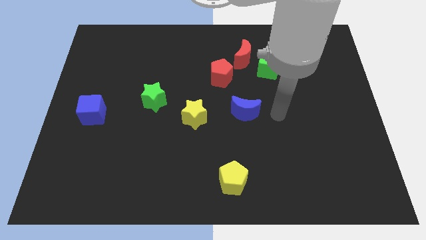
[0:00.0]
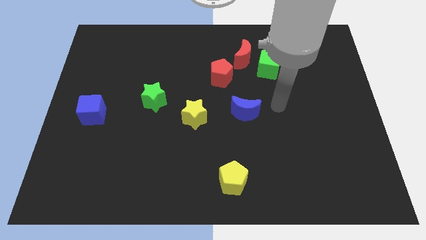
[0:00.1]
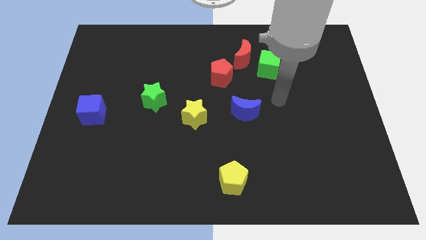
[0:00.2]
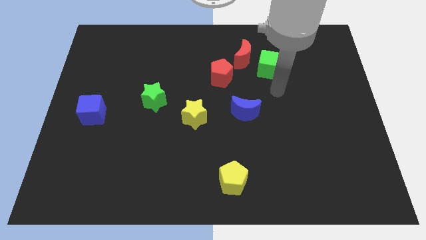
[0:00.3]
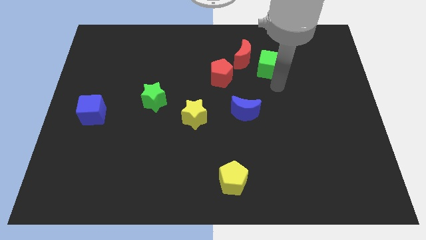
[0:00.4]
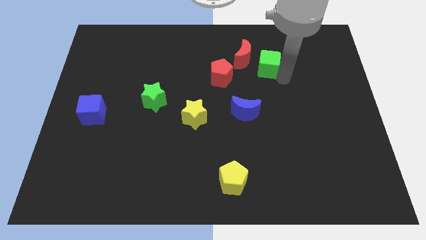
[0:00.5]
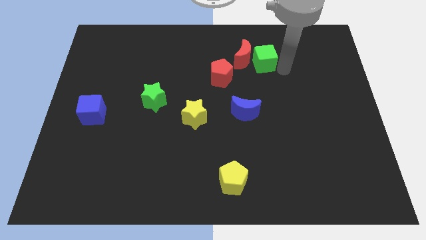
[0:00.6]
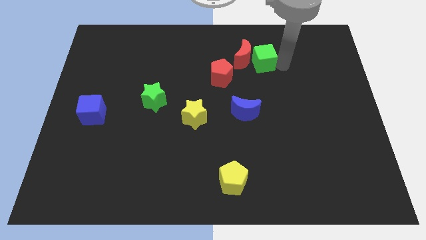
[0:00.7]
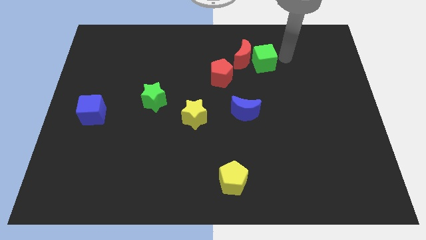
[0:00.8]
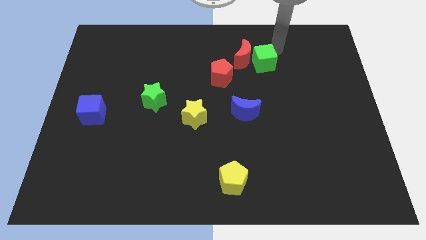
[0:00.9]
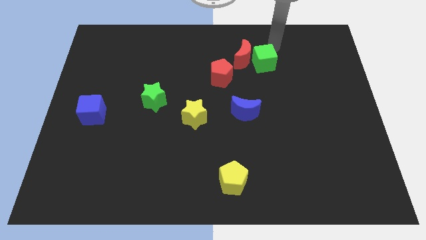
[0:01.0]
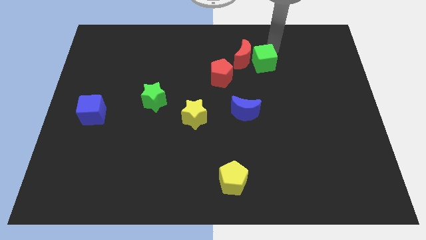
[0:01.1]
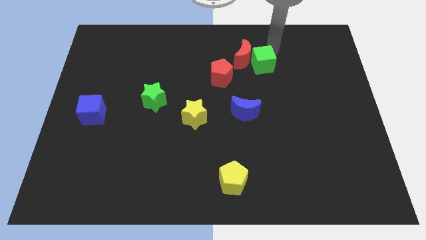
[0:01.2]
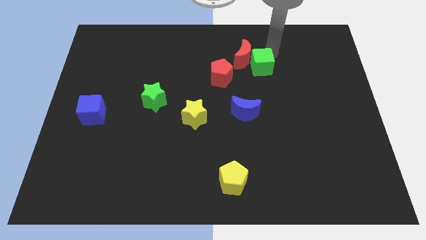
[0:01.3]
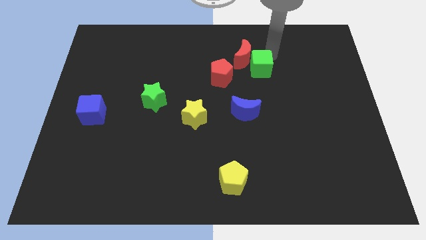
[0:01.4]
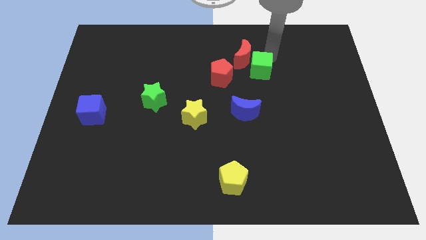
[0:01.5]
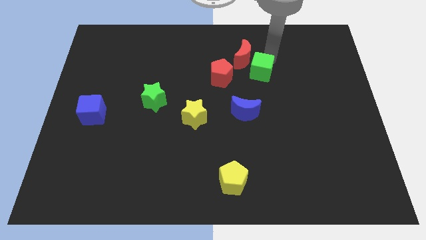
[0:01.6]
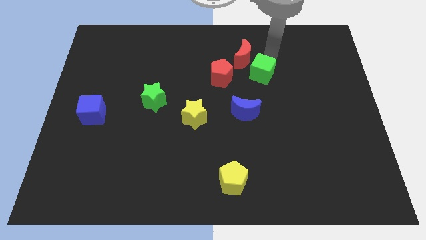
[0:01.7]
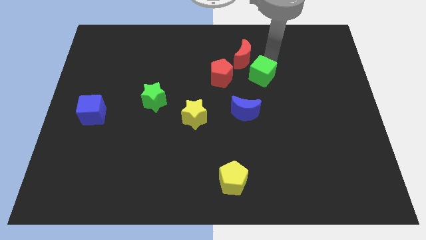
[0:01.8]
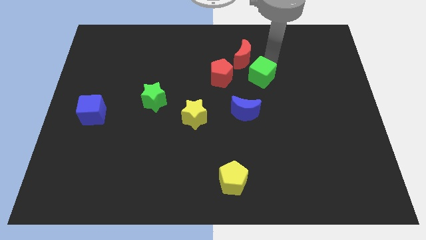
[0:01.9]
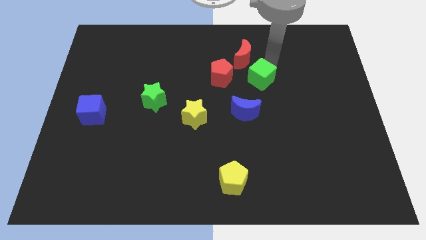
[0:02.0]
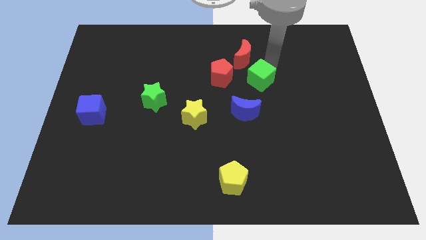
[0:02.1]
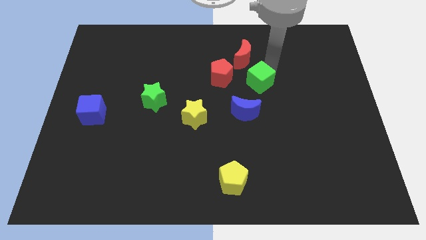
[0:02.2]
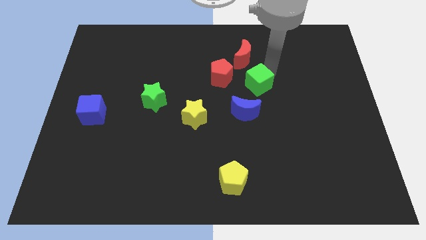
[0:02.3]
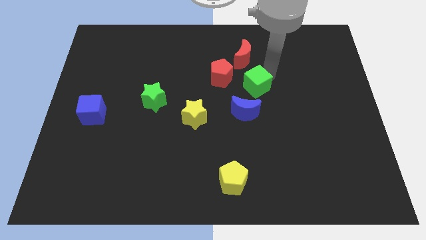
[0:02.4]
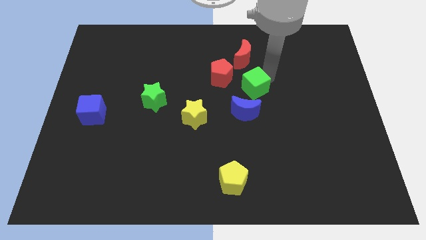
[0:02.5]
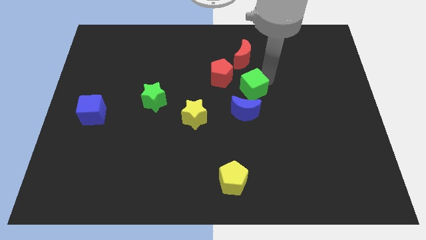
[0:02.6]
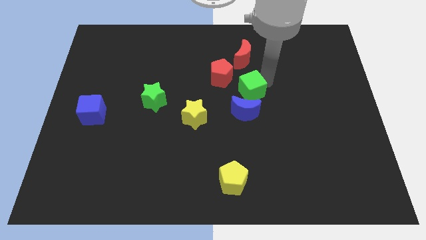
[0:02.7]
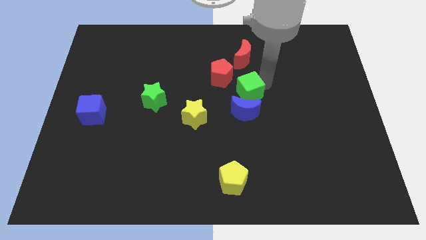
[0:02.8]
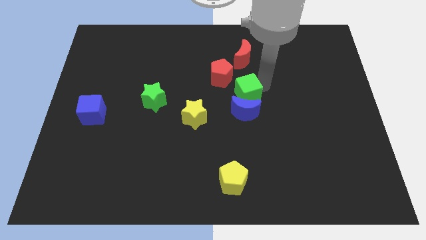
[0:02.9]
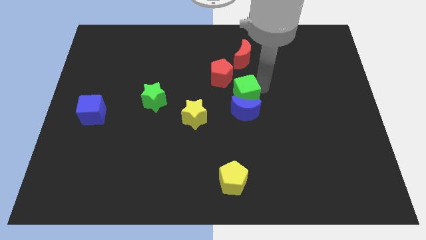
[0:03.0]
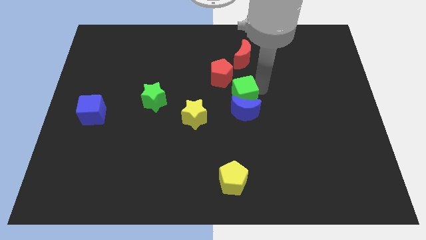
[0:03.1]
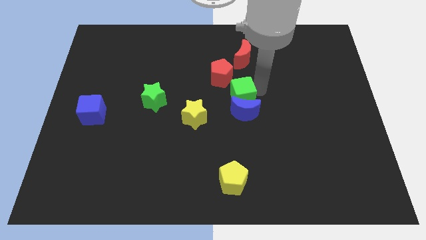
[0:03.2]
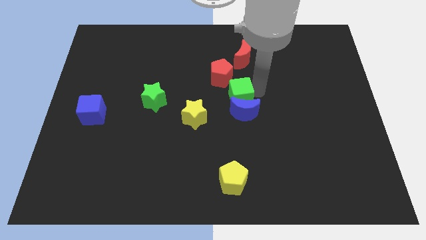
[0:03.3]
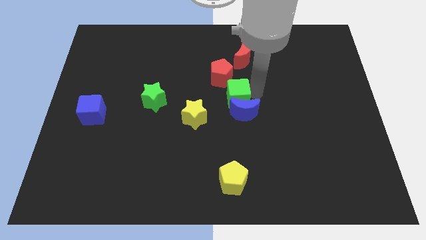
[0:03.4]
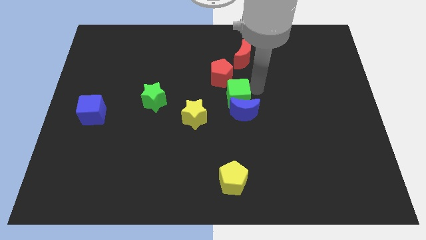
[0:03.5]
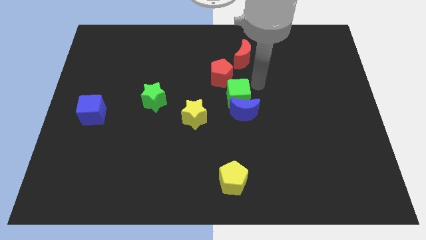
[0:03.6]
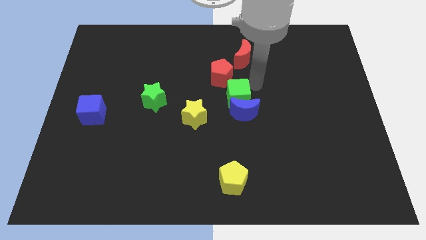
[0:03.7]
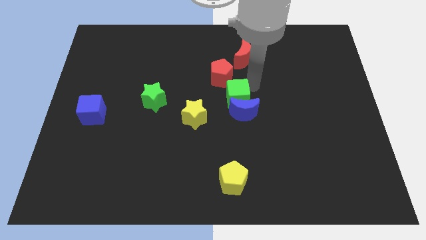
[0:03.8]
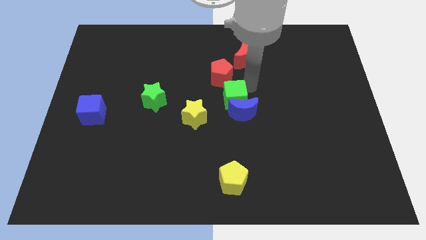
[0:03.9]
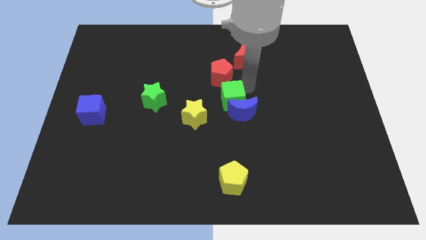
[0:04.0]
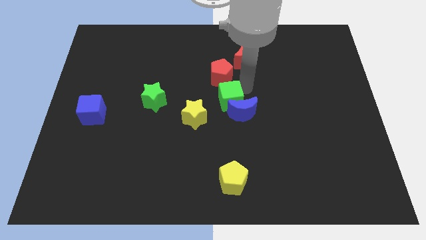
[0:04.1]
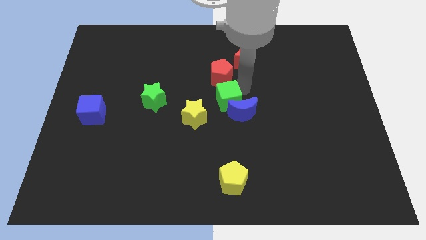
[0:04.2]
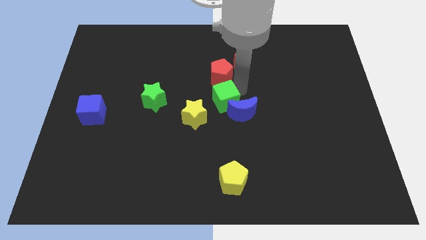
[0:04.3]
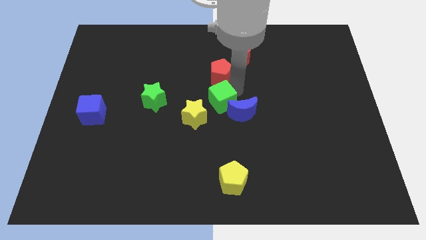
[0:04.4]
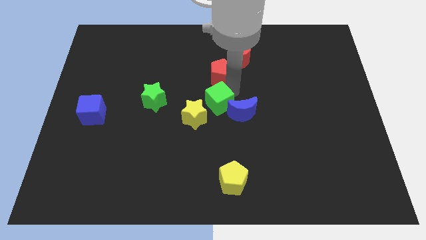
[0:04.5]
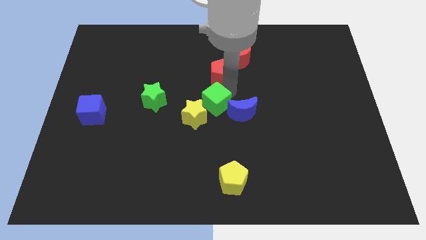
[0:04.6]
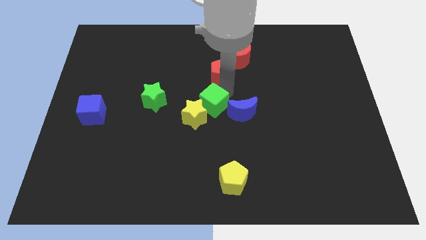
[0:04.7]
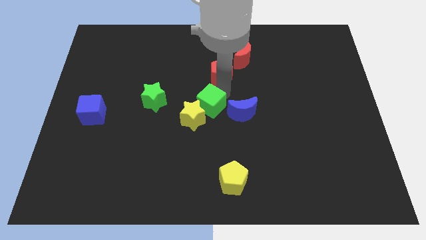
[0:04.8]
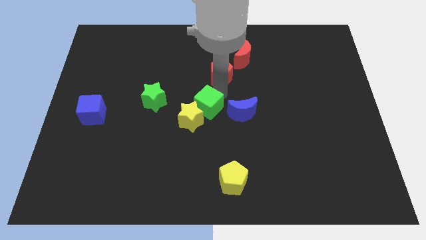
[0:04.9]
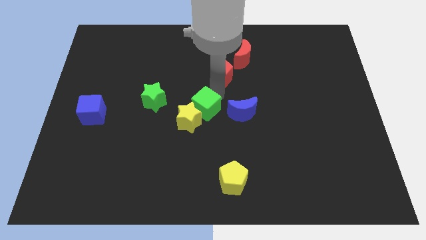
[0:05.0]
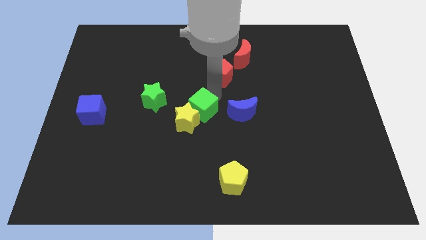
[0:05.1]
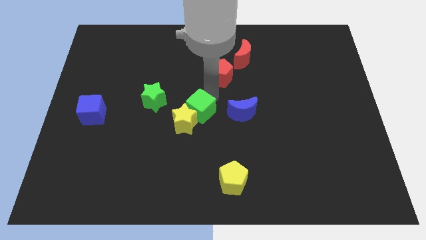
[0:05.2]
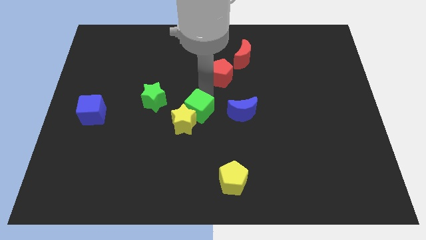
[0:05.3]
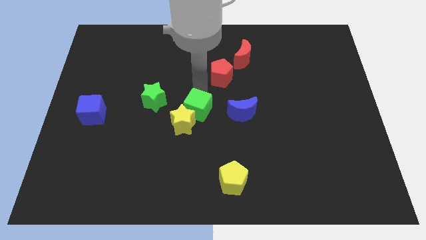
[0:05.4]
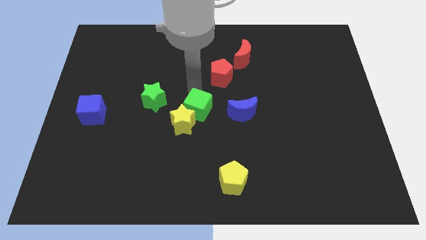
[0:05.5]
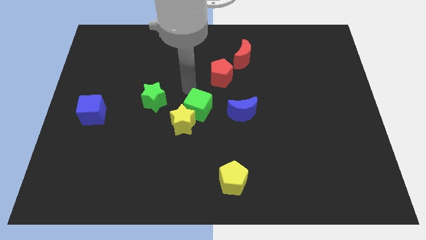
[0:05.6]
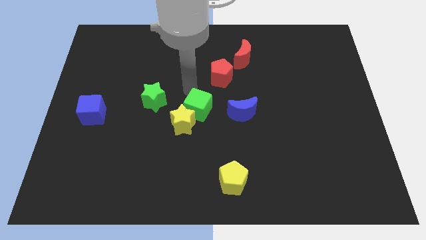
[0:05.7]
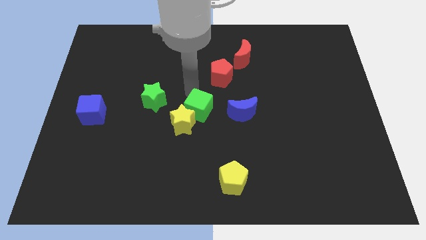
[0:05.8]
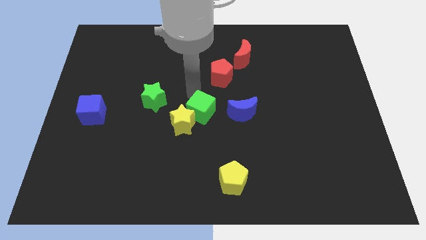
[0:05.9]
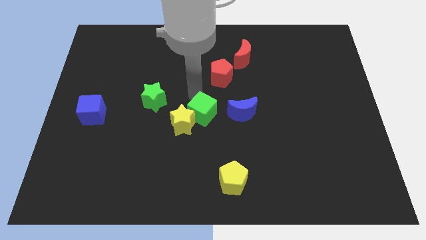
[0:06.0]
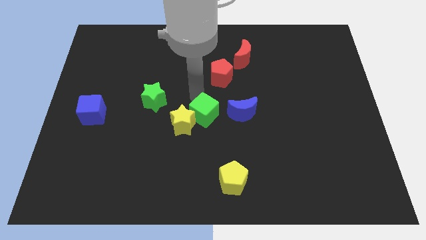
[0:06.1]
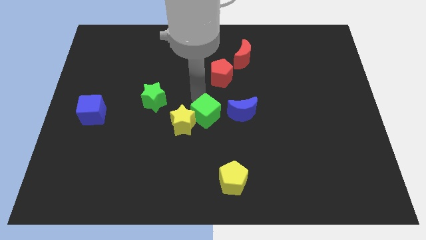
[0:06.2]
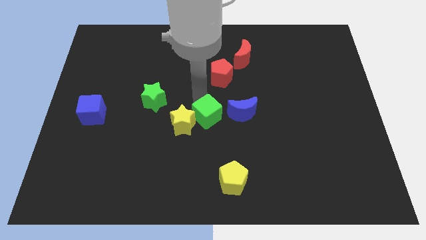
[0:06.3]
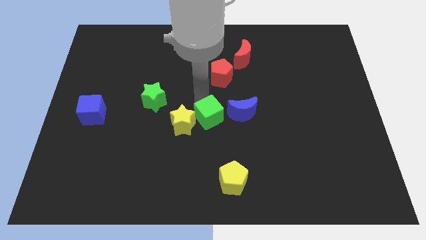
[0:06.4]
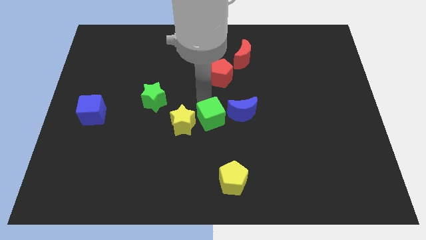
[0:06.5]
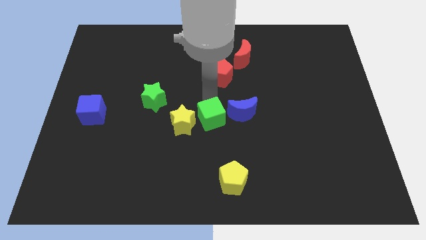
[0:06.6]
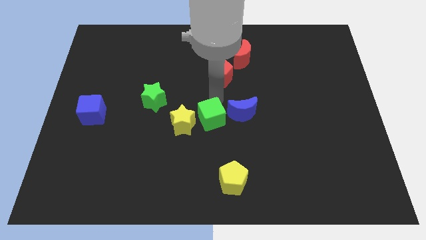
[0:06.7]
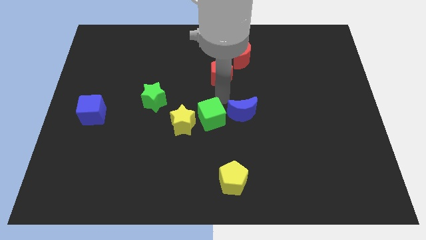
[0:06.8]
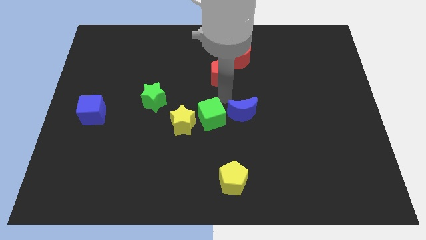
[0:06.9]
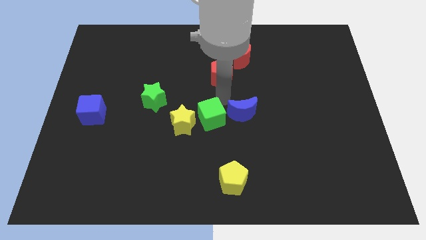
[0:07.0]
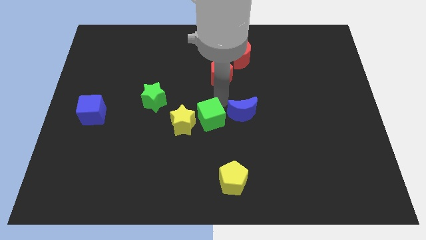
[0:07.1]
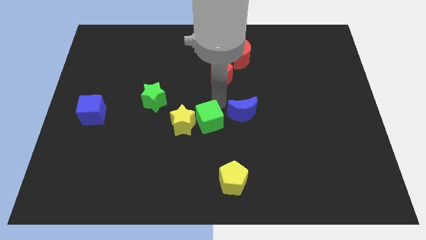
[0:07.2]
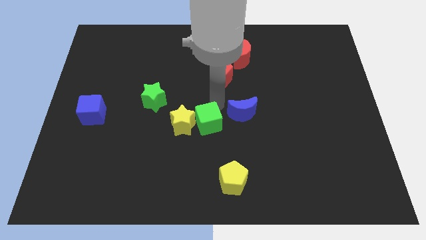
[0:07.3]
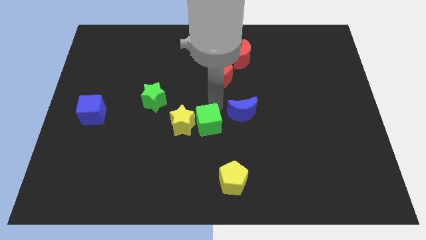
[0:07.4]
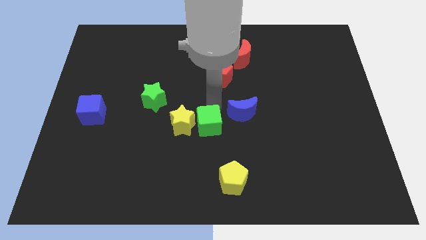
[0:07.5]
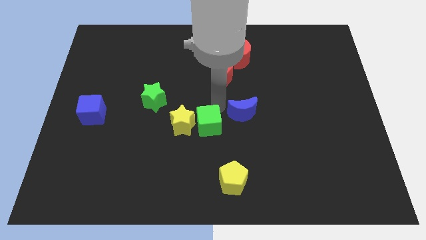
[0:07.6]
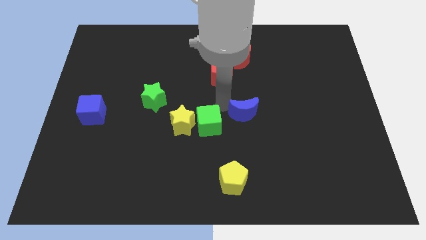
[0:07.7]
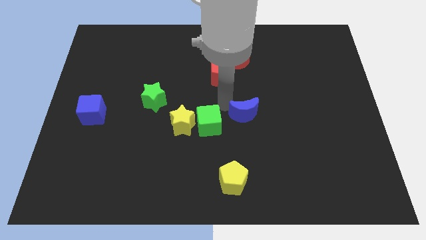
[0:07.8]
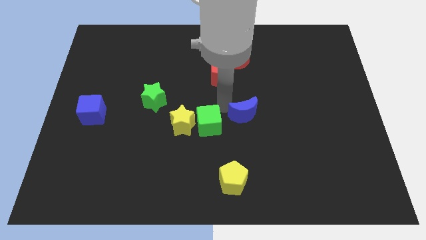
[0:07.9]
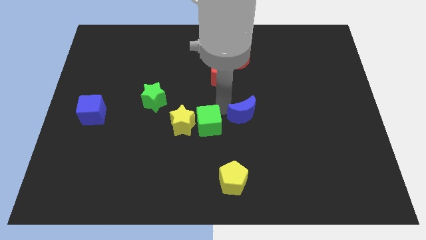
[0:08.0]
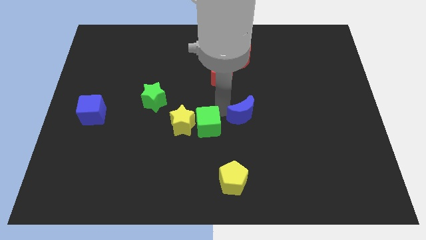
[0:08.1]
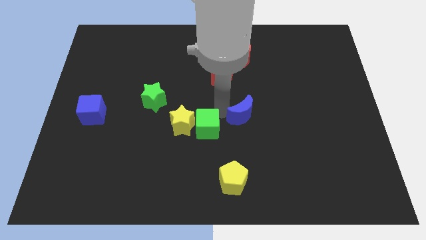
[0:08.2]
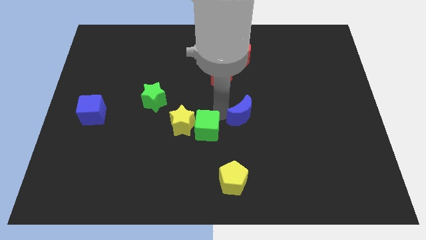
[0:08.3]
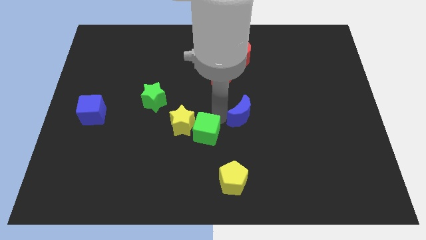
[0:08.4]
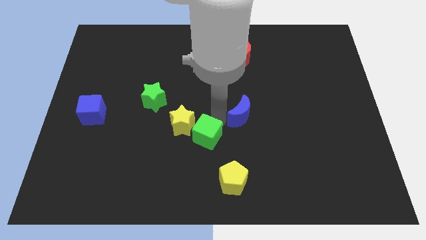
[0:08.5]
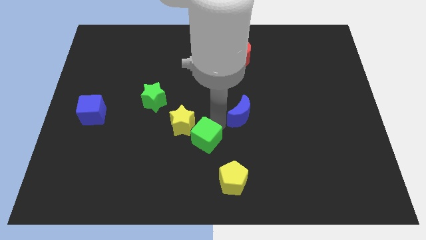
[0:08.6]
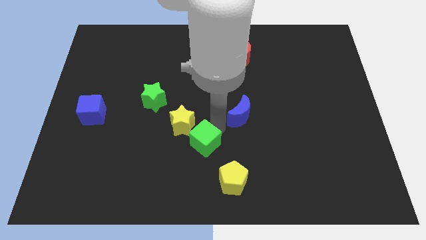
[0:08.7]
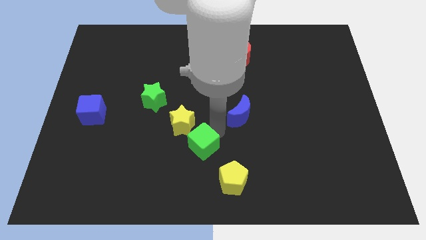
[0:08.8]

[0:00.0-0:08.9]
push the green cube to the bottom of the yellow star
